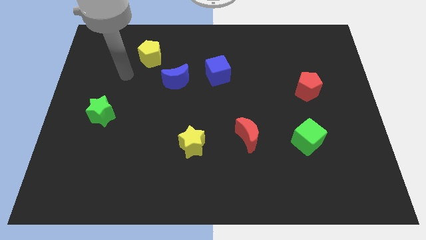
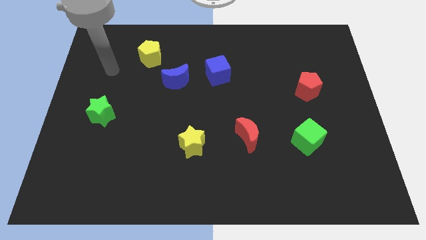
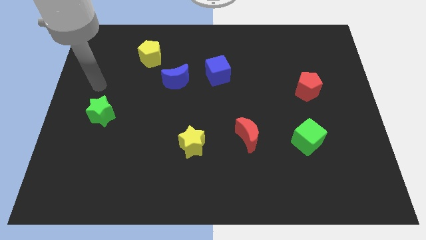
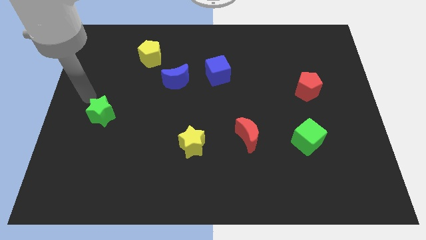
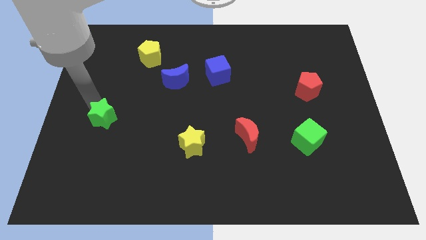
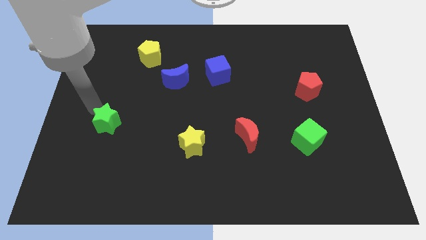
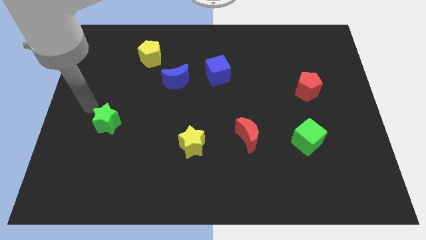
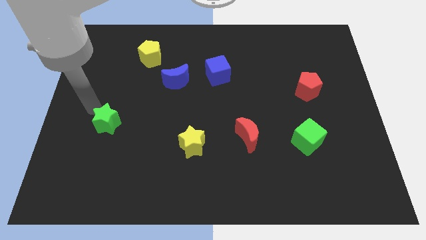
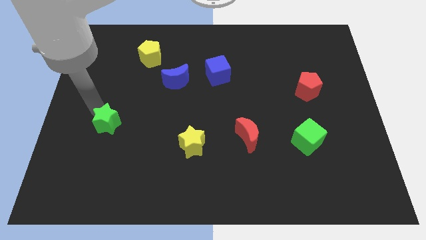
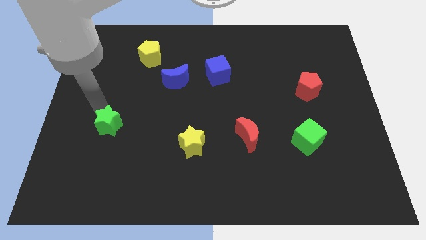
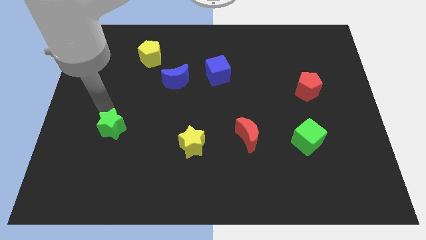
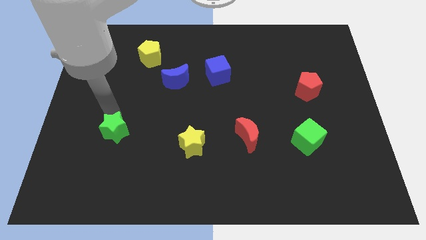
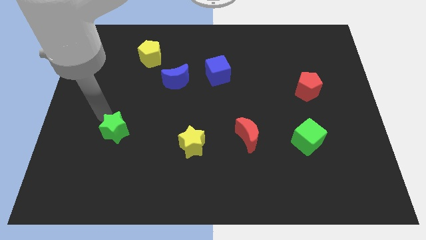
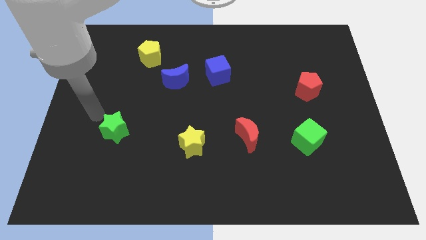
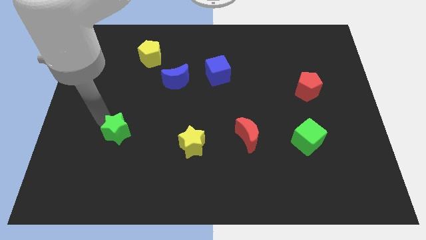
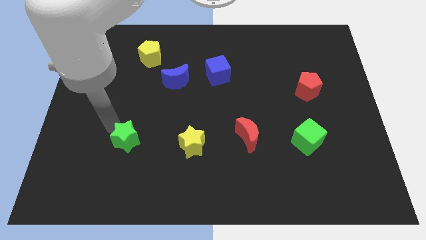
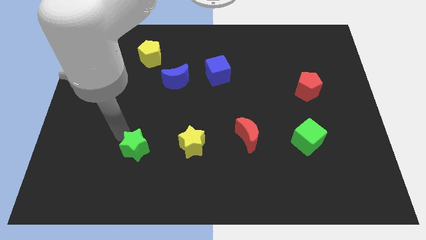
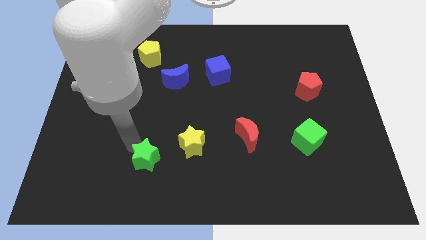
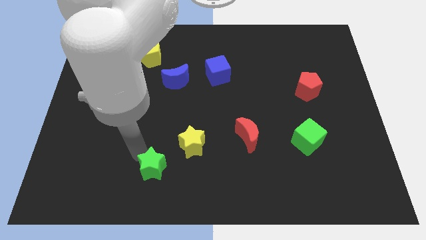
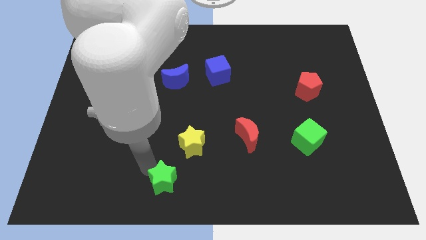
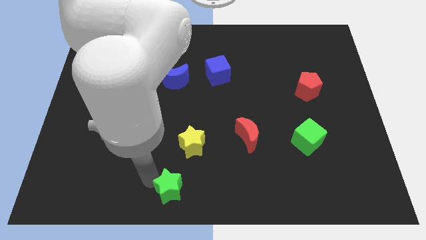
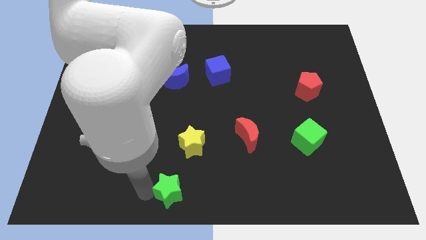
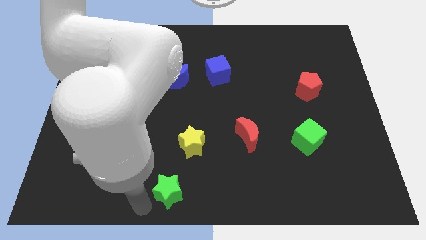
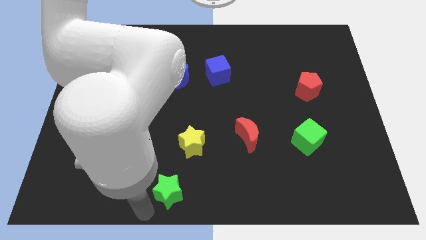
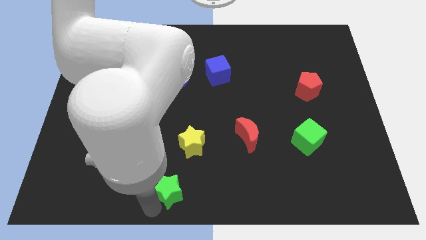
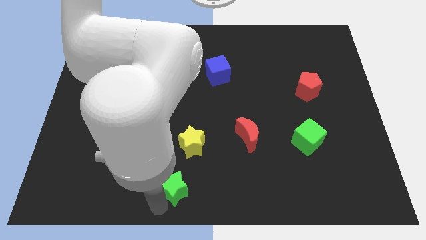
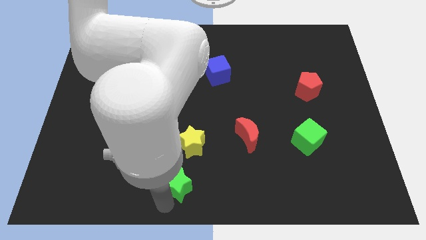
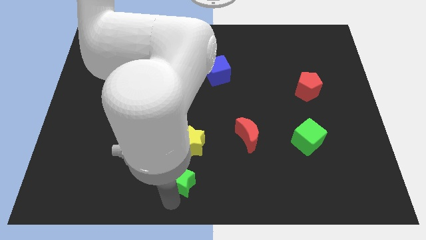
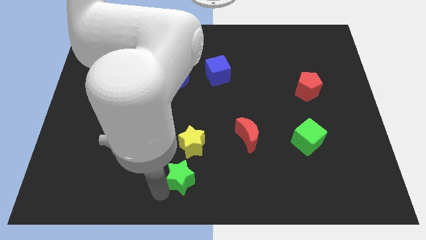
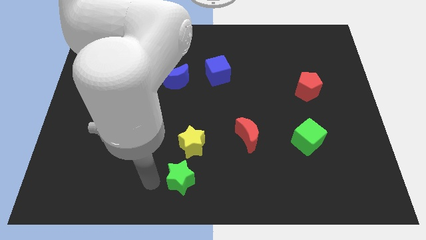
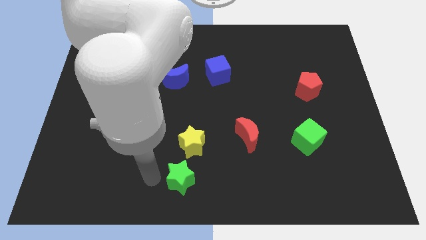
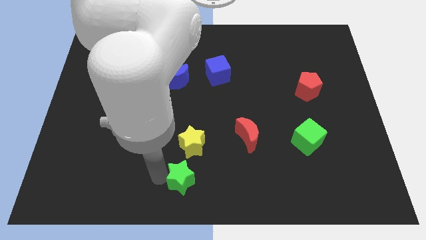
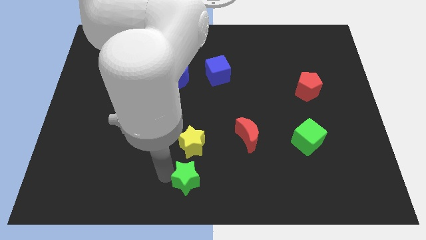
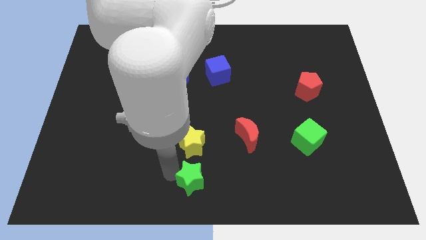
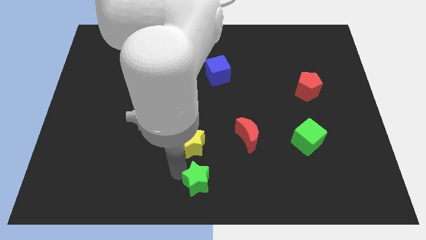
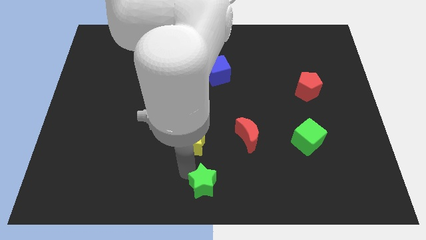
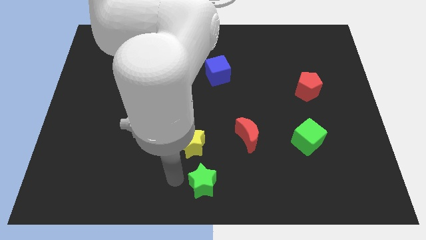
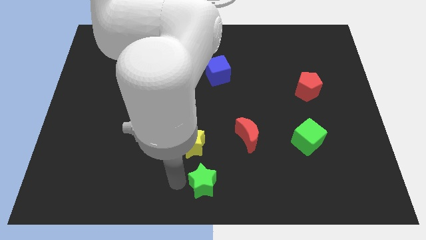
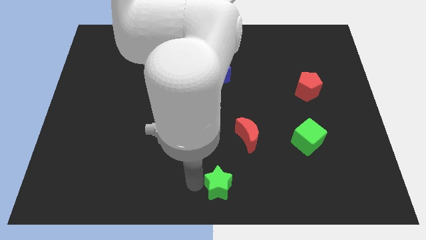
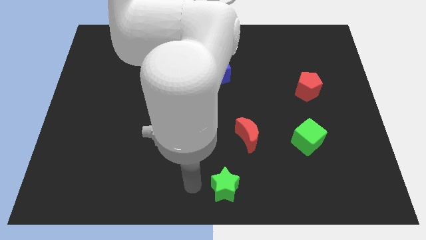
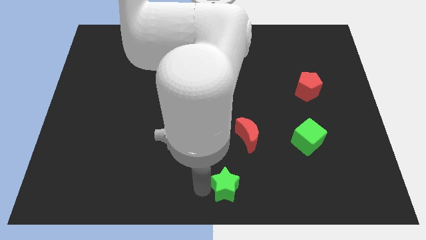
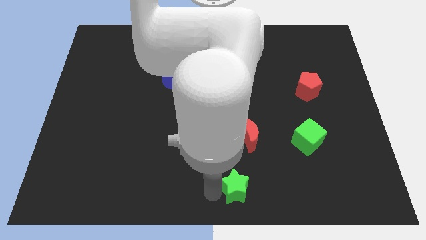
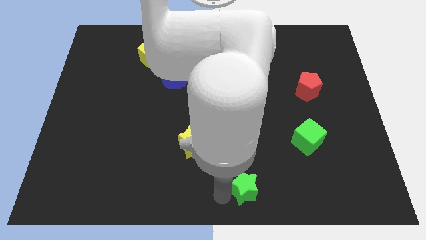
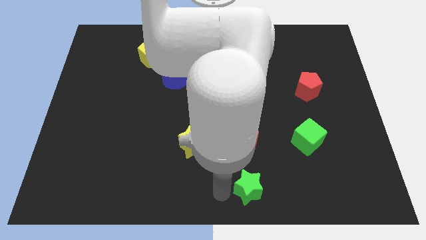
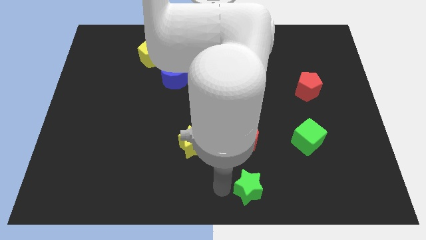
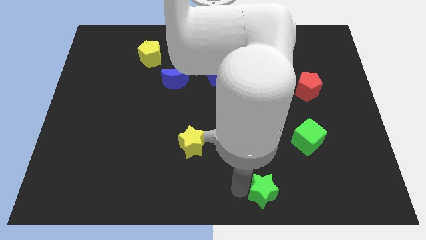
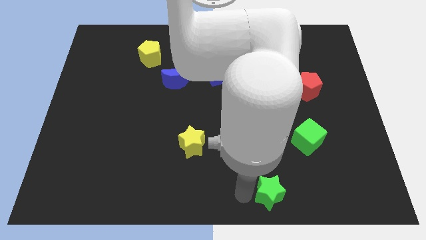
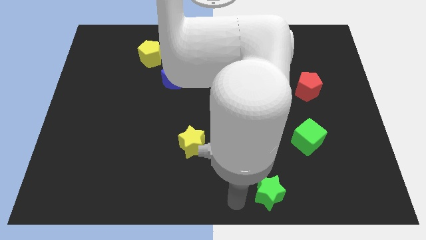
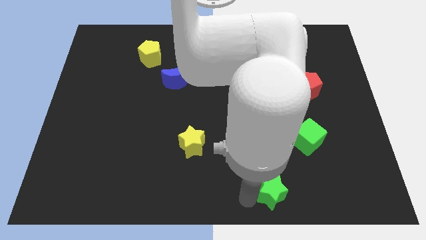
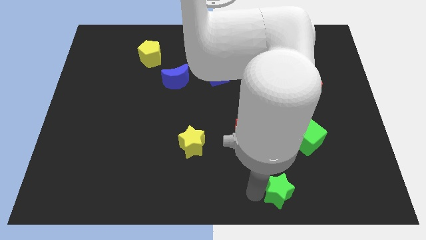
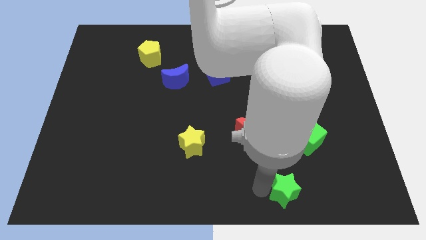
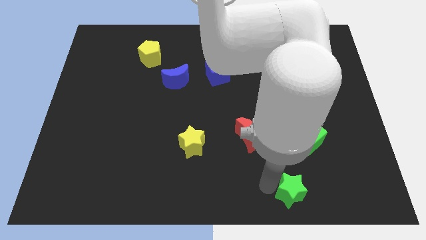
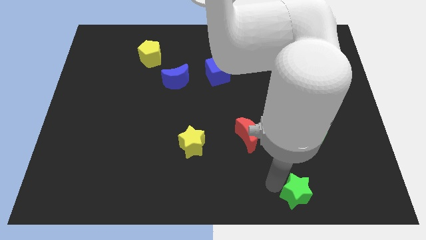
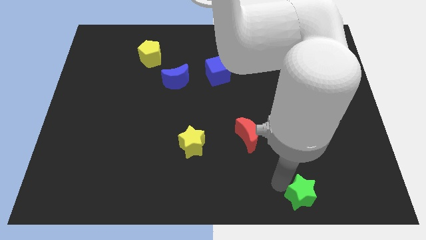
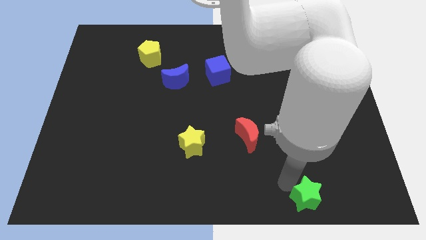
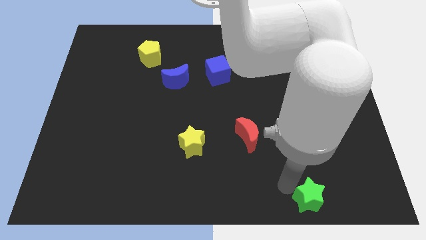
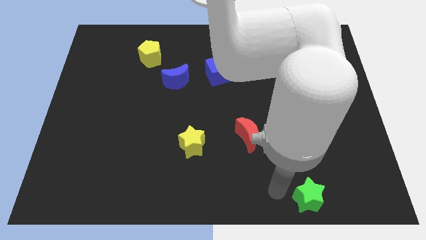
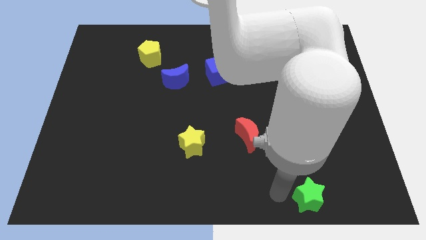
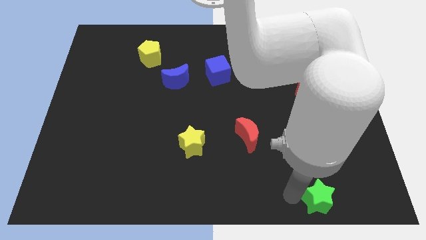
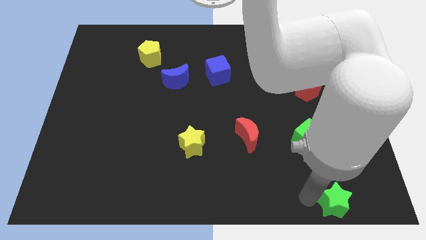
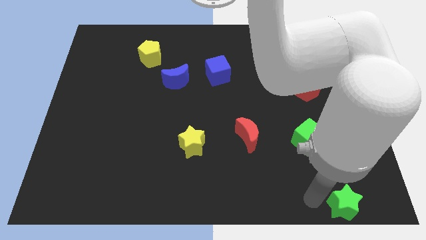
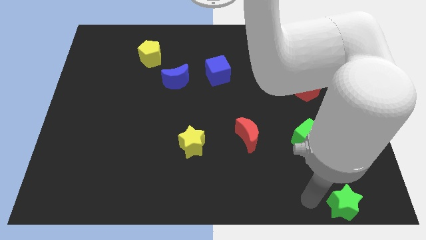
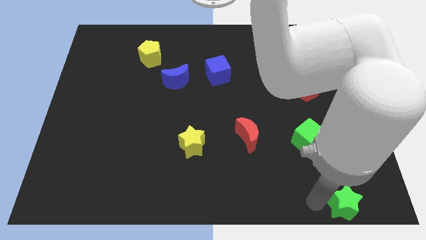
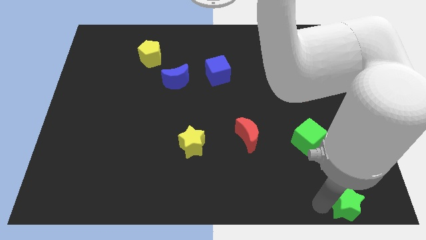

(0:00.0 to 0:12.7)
slide the green star to the bottom right of the board
